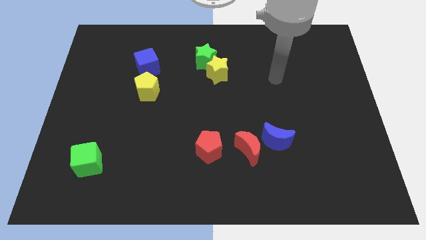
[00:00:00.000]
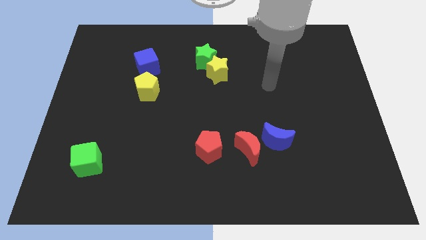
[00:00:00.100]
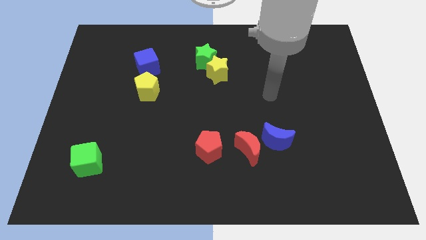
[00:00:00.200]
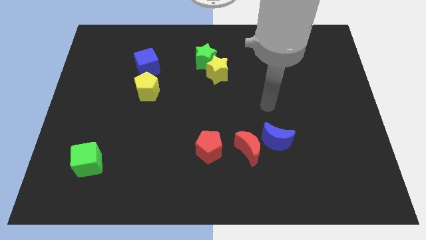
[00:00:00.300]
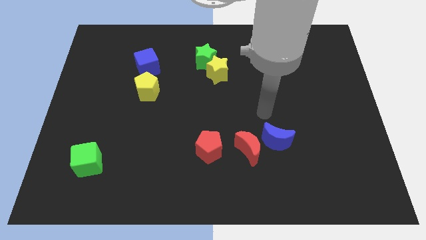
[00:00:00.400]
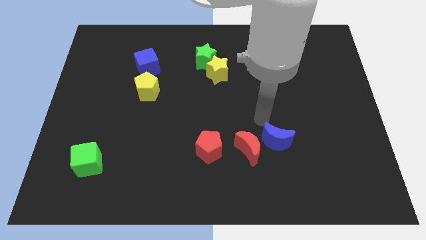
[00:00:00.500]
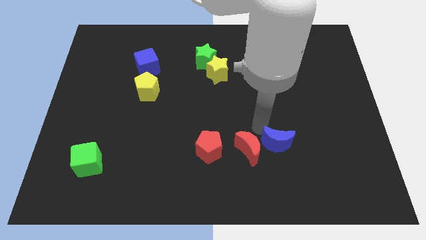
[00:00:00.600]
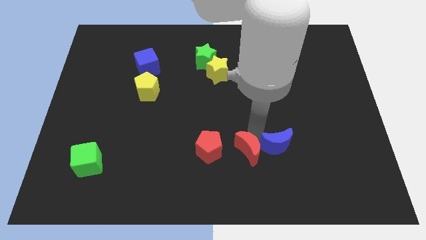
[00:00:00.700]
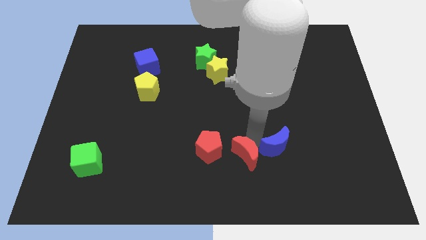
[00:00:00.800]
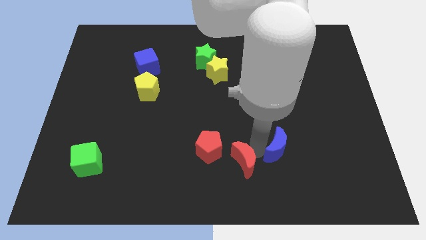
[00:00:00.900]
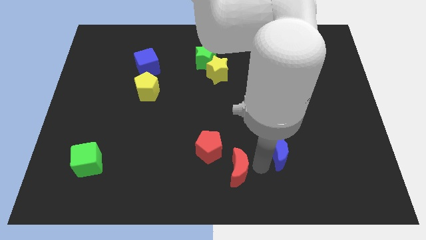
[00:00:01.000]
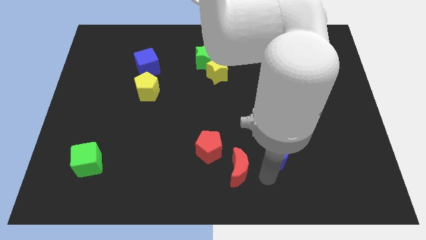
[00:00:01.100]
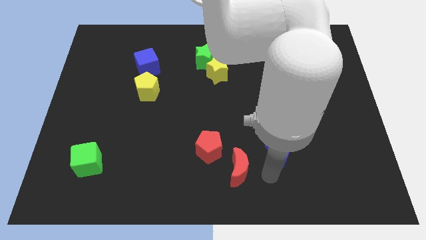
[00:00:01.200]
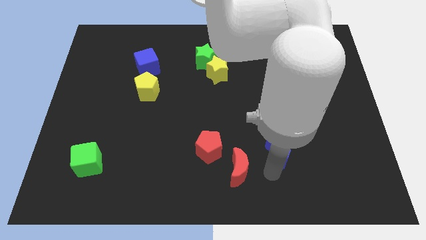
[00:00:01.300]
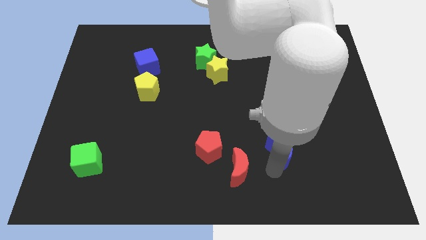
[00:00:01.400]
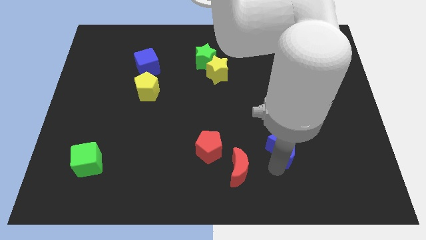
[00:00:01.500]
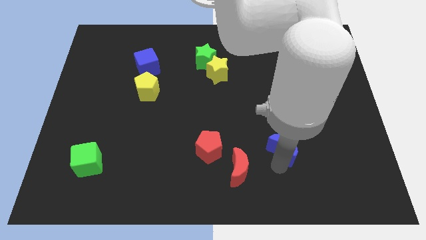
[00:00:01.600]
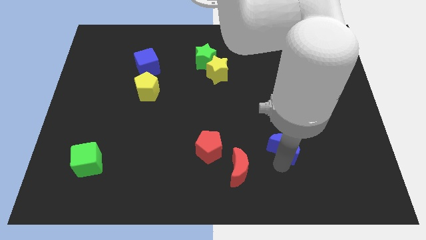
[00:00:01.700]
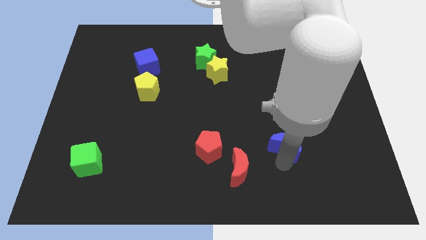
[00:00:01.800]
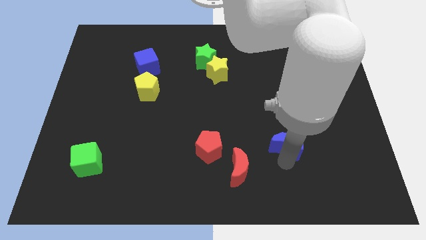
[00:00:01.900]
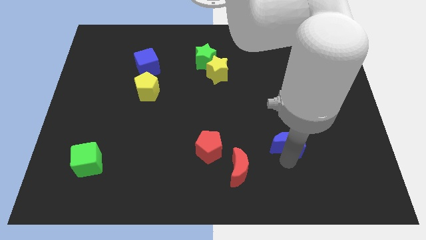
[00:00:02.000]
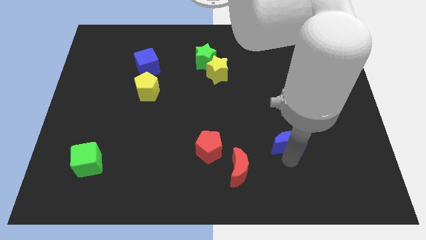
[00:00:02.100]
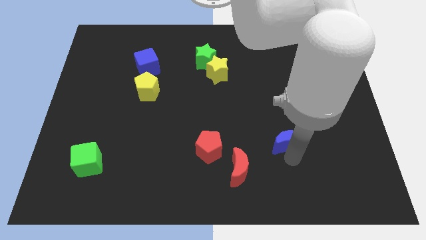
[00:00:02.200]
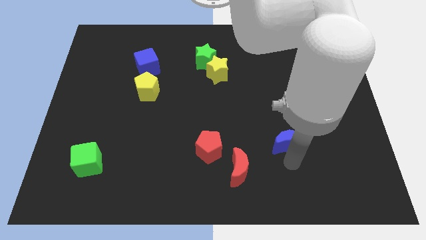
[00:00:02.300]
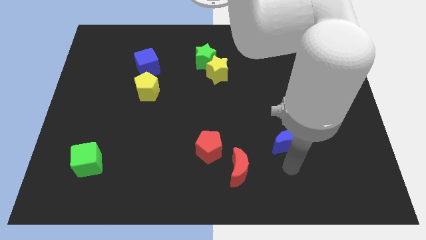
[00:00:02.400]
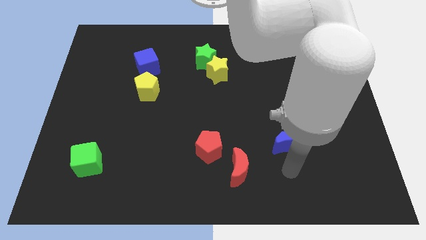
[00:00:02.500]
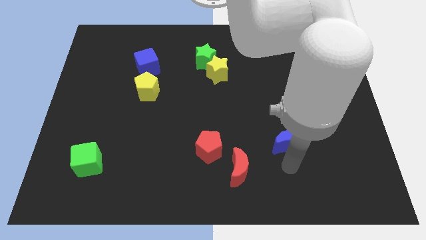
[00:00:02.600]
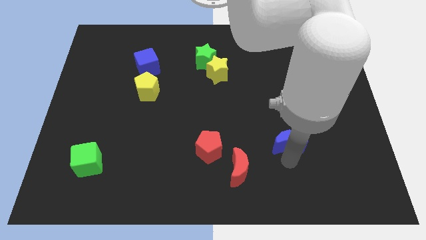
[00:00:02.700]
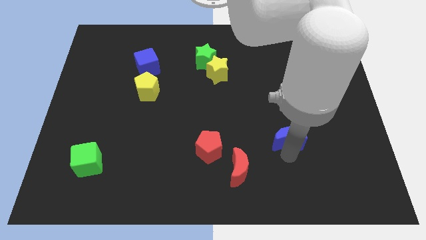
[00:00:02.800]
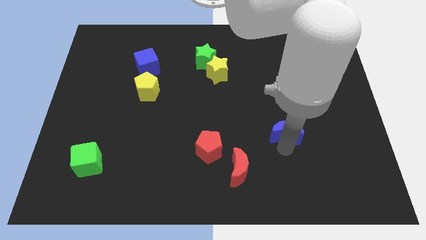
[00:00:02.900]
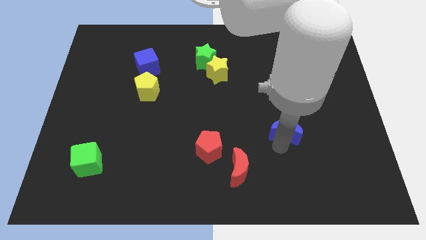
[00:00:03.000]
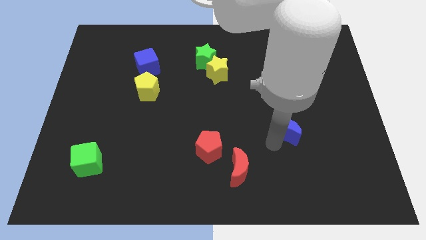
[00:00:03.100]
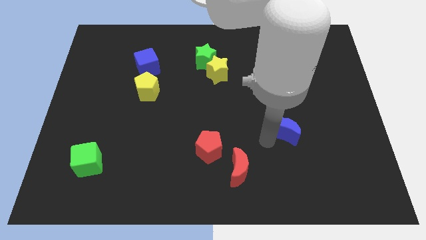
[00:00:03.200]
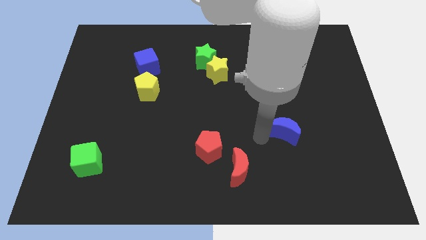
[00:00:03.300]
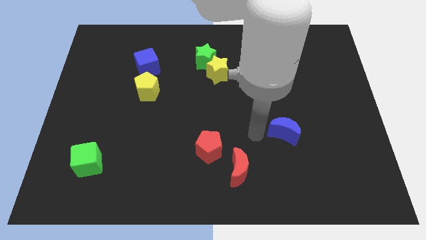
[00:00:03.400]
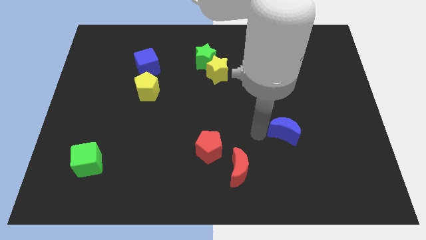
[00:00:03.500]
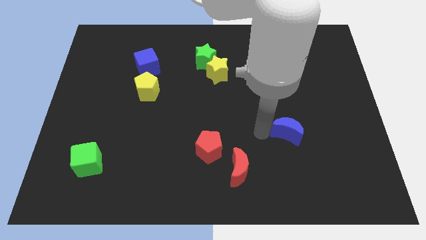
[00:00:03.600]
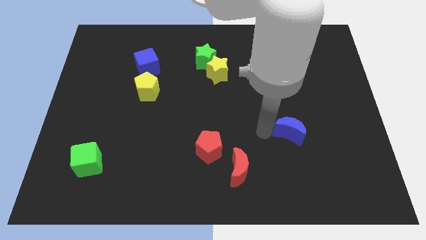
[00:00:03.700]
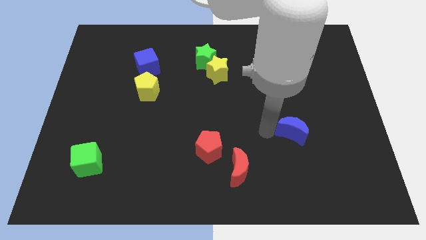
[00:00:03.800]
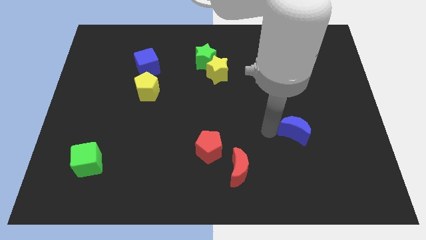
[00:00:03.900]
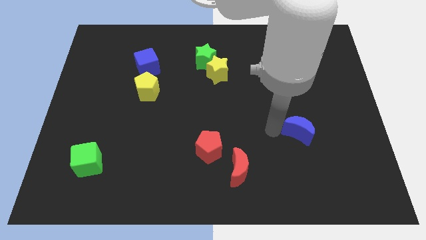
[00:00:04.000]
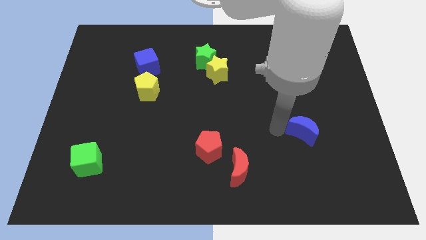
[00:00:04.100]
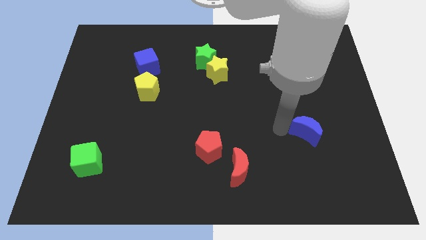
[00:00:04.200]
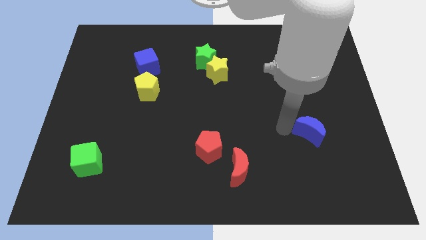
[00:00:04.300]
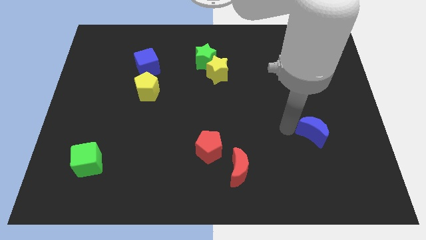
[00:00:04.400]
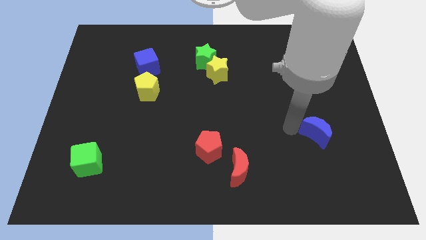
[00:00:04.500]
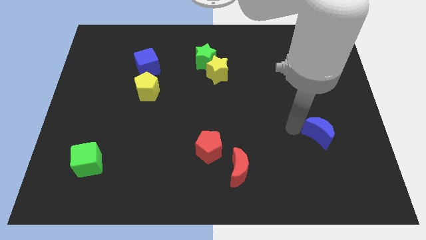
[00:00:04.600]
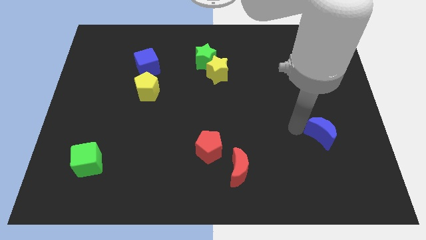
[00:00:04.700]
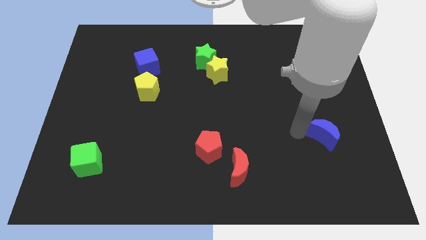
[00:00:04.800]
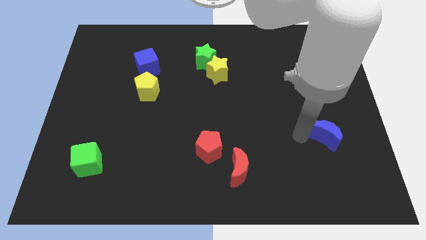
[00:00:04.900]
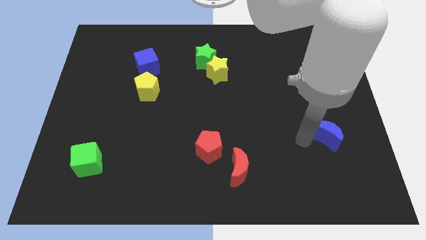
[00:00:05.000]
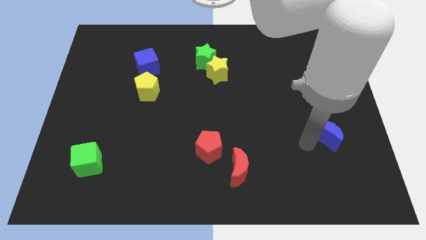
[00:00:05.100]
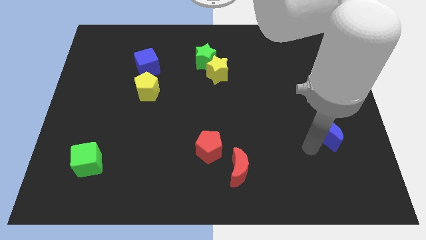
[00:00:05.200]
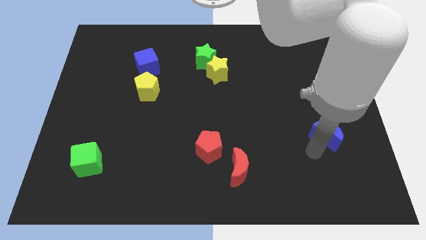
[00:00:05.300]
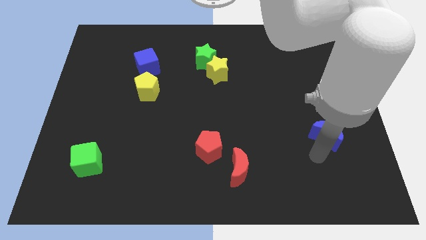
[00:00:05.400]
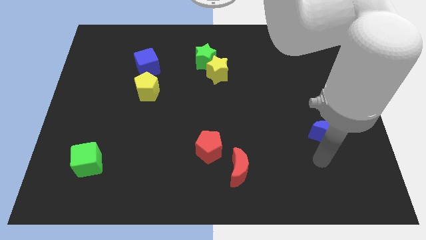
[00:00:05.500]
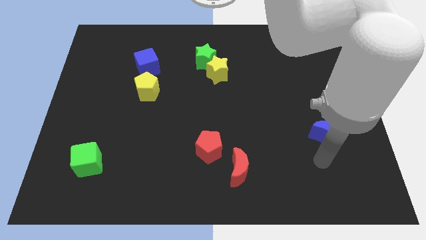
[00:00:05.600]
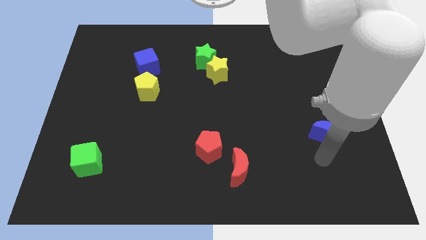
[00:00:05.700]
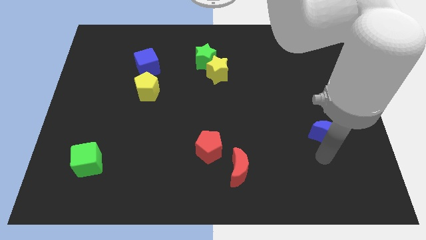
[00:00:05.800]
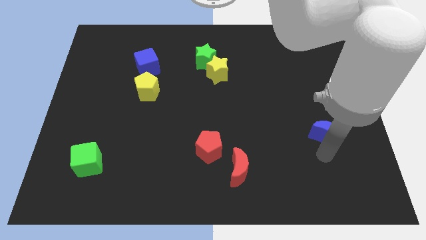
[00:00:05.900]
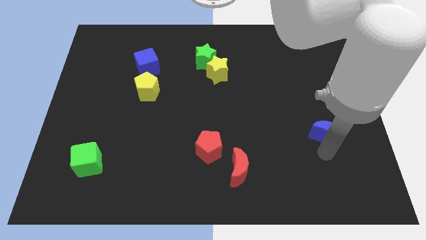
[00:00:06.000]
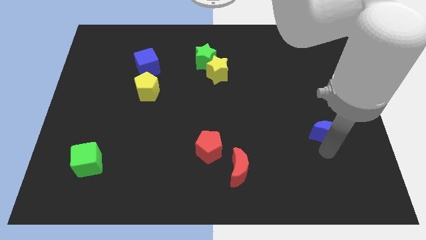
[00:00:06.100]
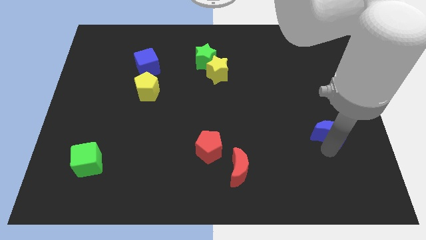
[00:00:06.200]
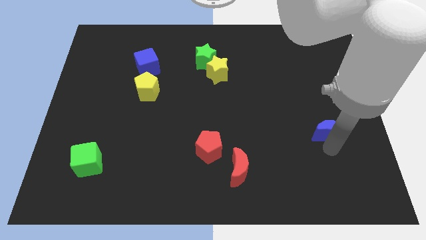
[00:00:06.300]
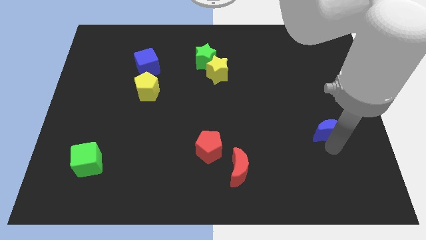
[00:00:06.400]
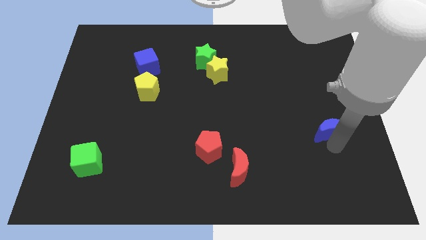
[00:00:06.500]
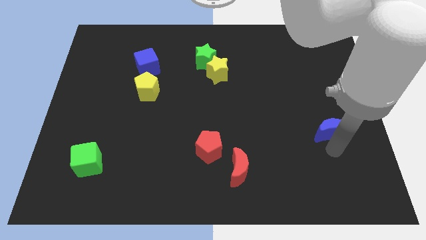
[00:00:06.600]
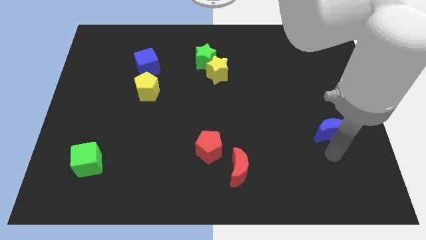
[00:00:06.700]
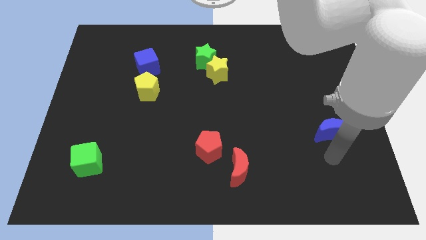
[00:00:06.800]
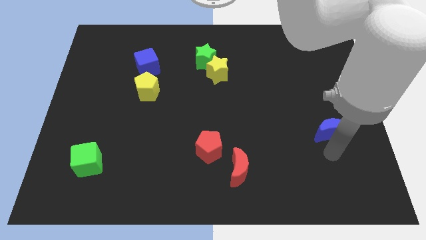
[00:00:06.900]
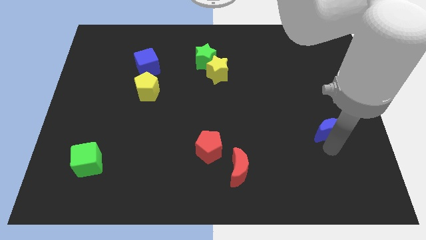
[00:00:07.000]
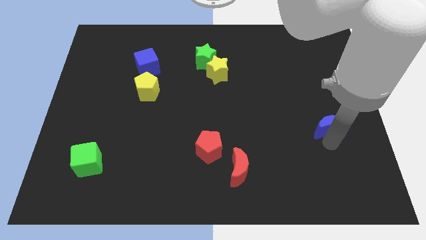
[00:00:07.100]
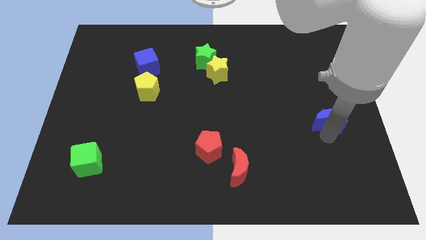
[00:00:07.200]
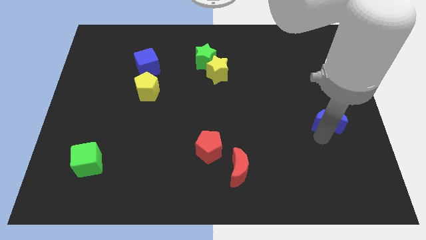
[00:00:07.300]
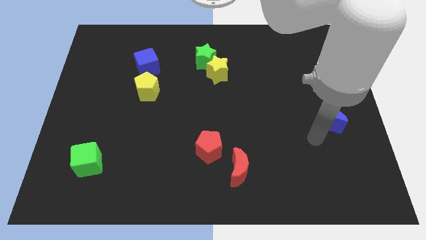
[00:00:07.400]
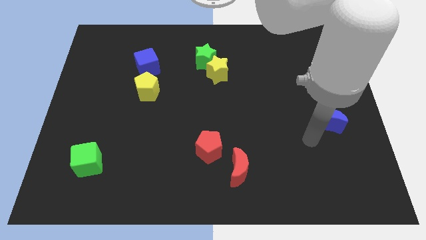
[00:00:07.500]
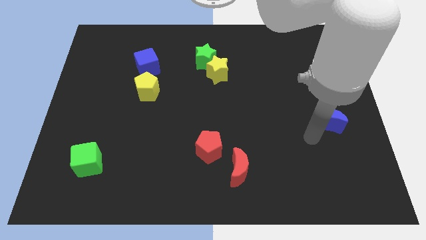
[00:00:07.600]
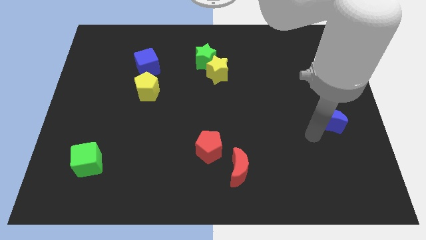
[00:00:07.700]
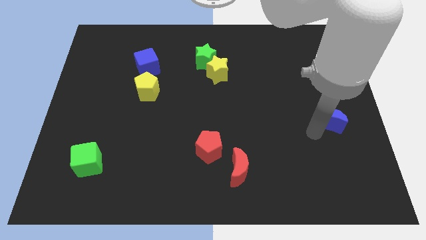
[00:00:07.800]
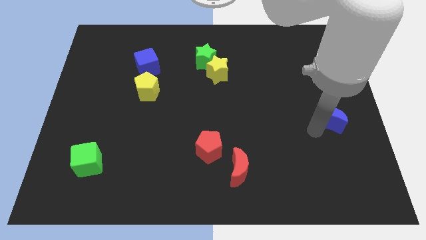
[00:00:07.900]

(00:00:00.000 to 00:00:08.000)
put the blue moon to the right side
